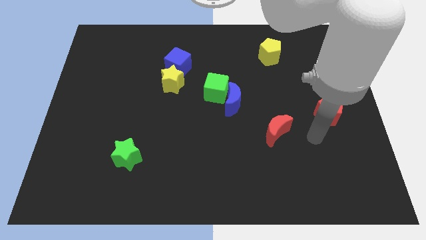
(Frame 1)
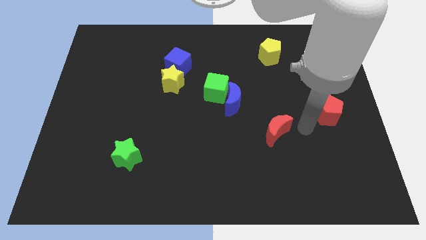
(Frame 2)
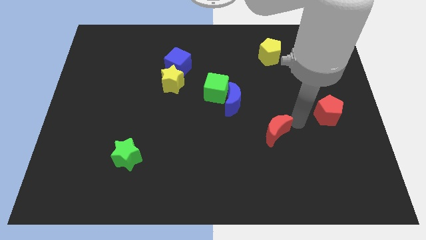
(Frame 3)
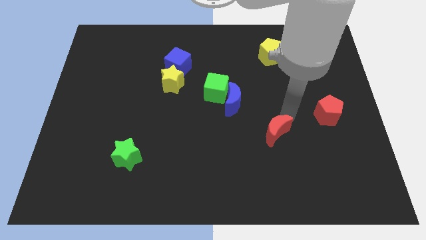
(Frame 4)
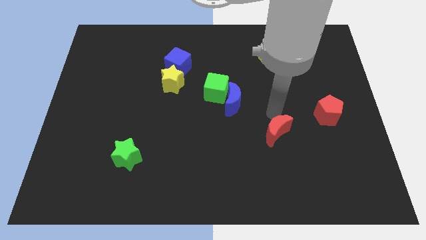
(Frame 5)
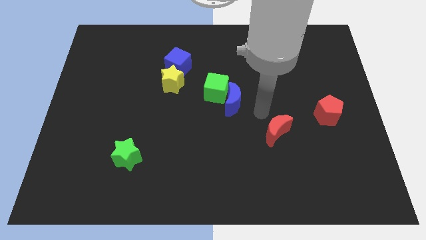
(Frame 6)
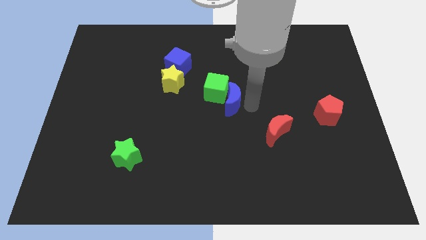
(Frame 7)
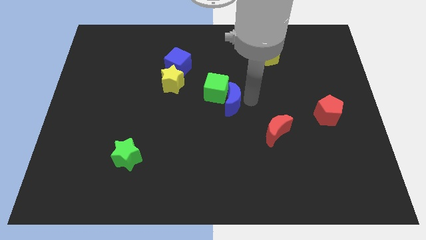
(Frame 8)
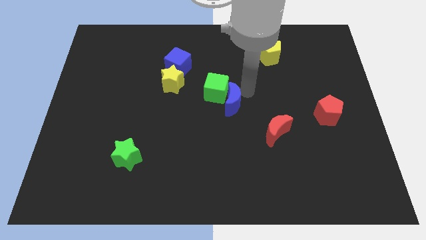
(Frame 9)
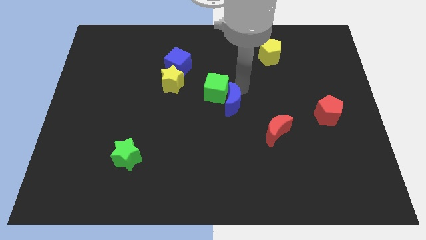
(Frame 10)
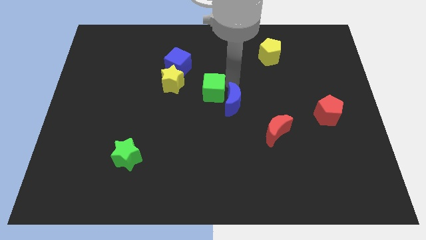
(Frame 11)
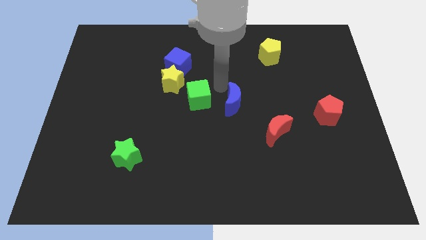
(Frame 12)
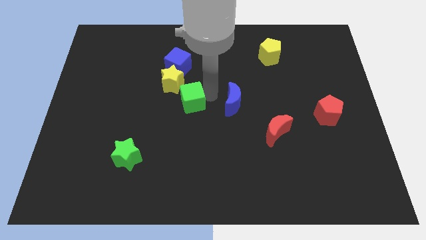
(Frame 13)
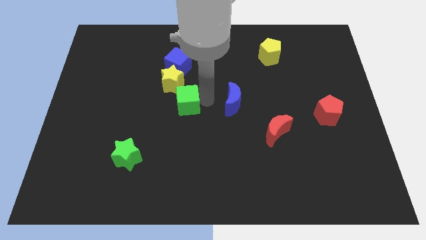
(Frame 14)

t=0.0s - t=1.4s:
pull the blue moon apart from the green cube

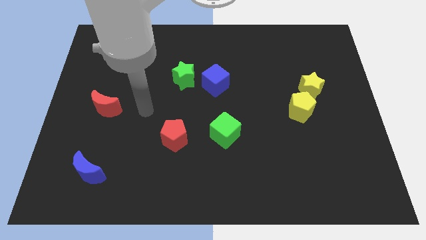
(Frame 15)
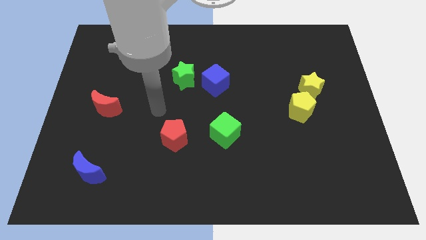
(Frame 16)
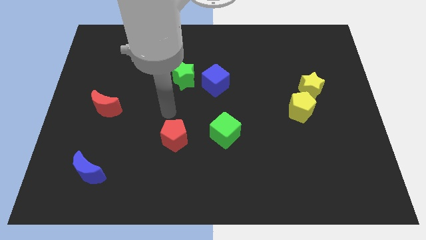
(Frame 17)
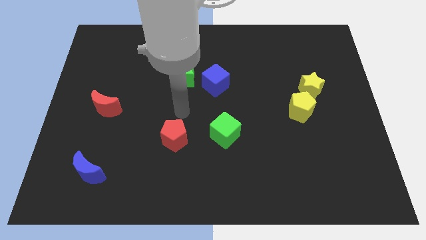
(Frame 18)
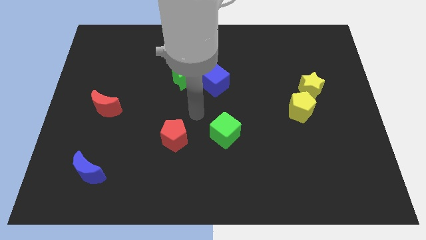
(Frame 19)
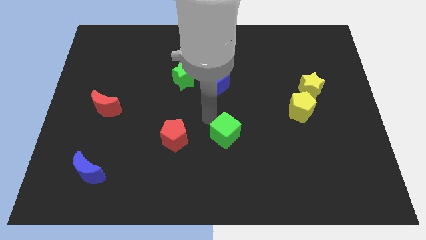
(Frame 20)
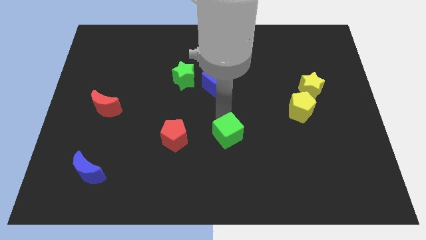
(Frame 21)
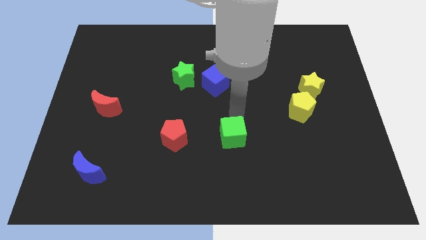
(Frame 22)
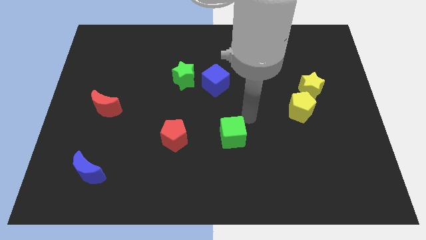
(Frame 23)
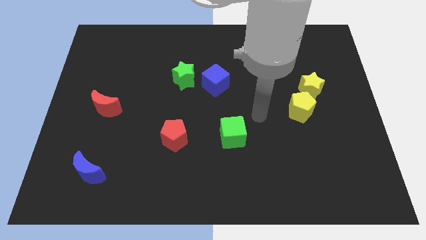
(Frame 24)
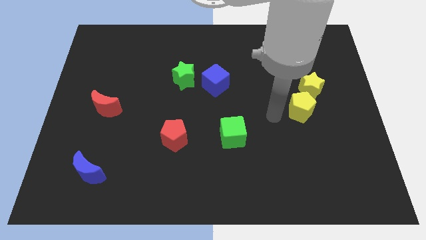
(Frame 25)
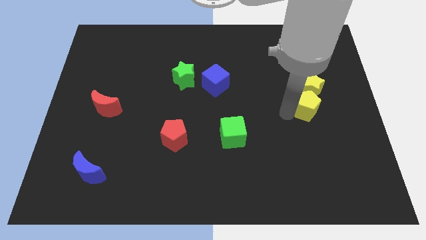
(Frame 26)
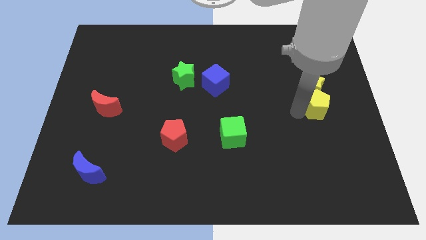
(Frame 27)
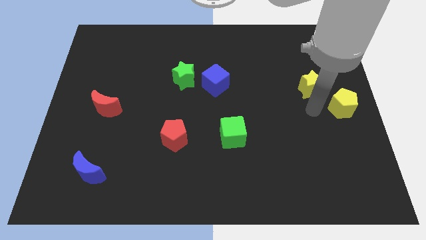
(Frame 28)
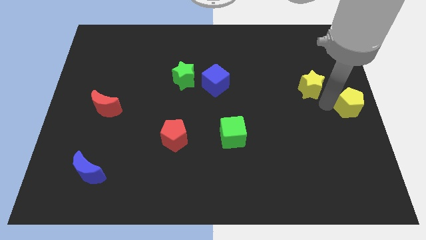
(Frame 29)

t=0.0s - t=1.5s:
move the yellow star away from the yellow pentagon

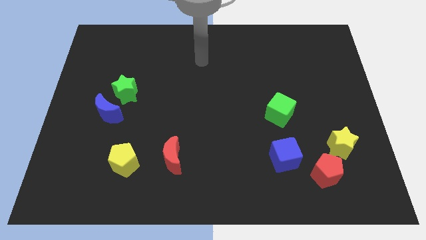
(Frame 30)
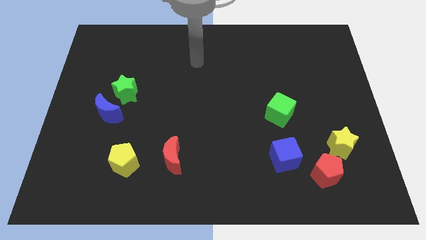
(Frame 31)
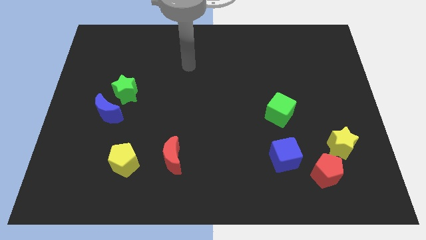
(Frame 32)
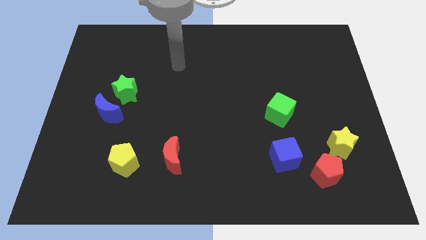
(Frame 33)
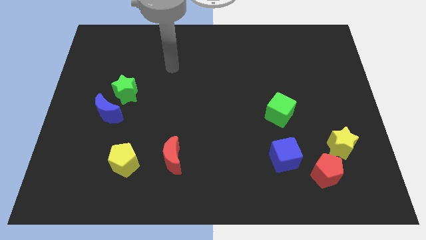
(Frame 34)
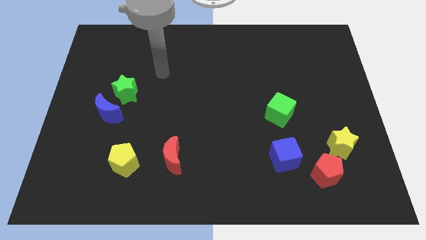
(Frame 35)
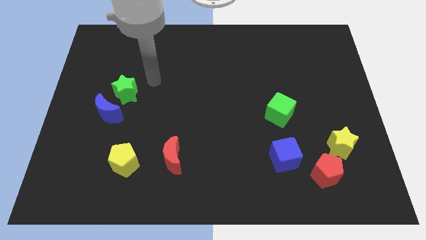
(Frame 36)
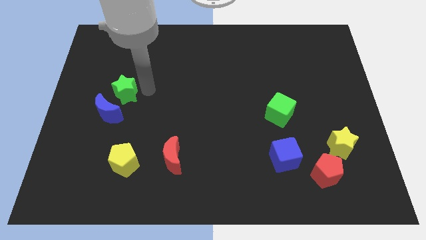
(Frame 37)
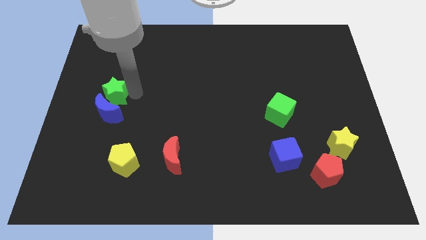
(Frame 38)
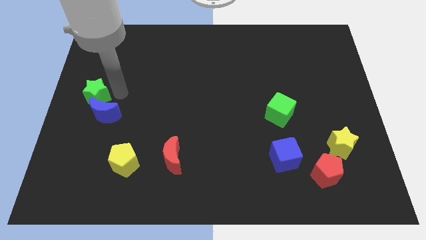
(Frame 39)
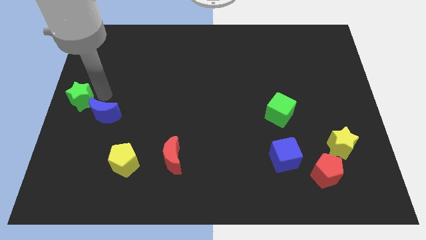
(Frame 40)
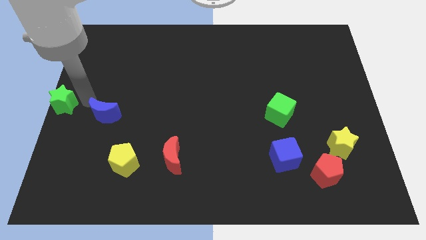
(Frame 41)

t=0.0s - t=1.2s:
move the blue moon away from the green star

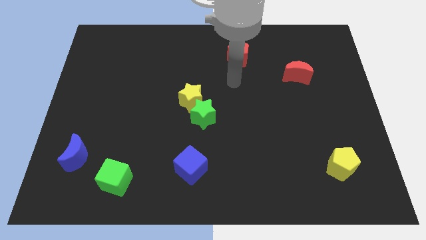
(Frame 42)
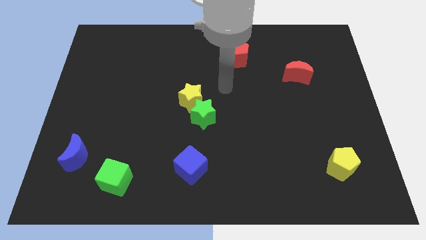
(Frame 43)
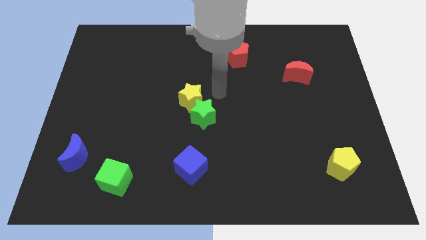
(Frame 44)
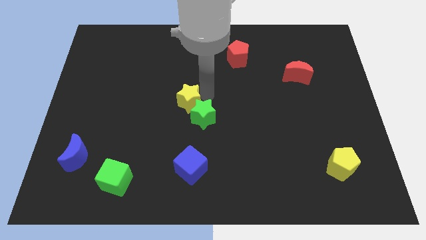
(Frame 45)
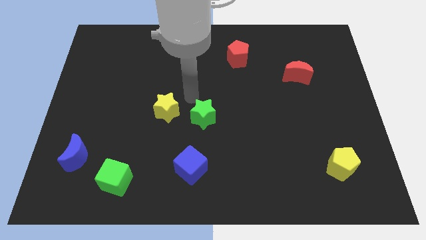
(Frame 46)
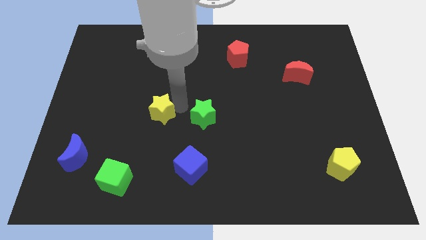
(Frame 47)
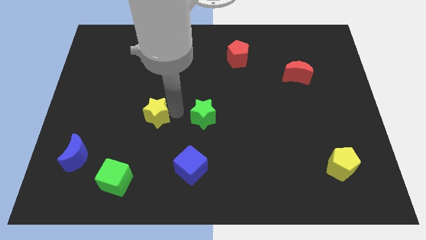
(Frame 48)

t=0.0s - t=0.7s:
move the green star away from the yellow star

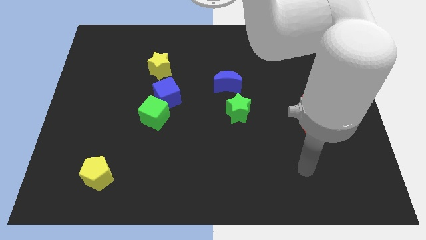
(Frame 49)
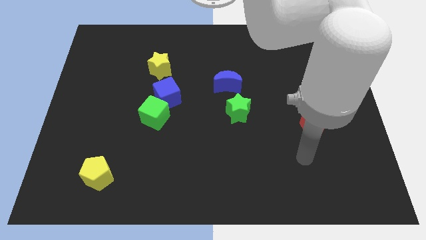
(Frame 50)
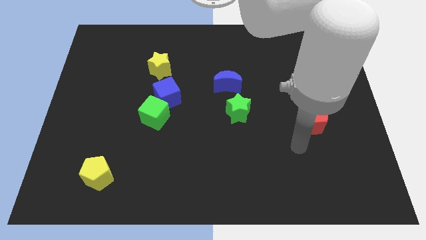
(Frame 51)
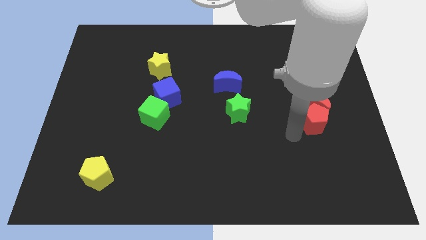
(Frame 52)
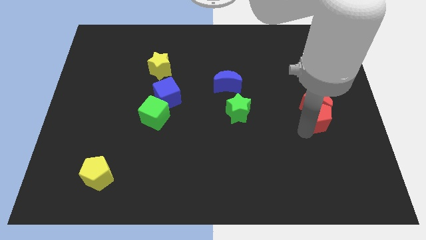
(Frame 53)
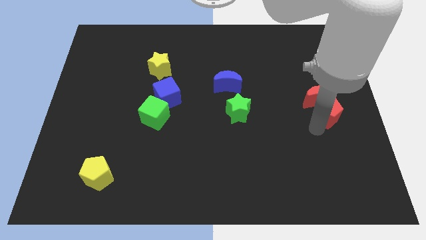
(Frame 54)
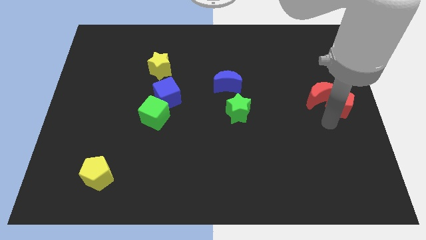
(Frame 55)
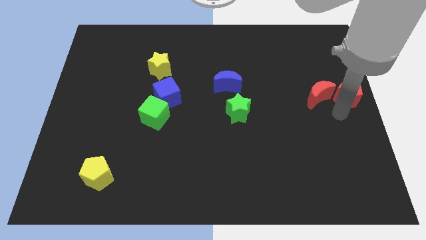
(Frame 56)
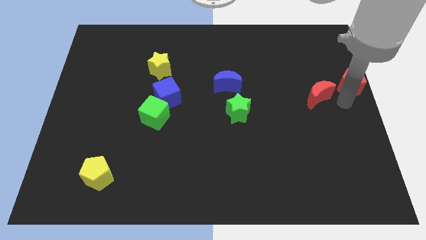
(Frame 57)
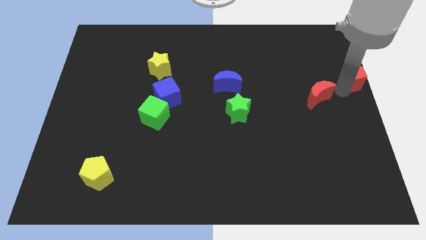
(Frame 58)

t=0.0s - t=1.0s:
separate the red moon from the red pentagon

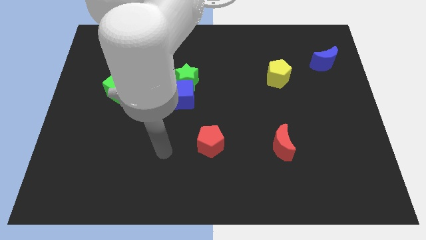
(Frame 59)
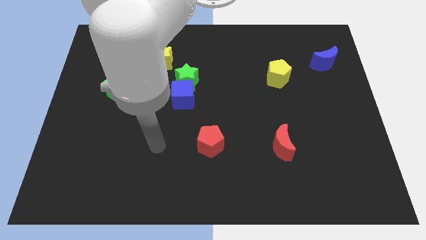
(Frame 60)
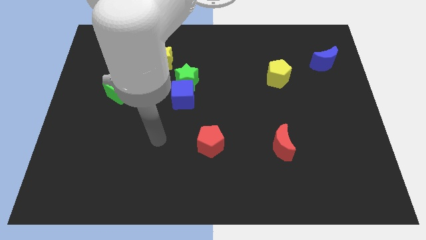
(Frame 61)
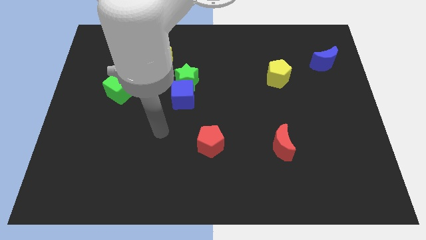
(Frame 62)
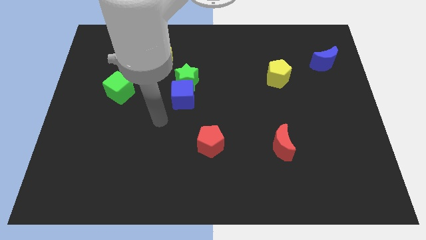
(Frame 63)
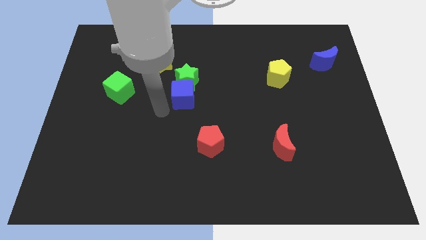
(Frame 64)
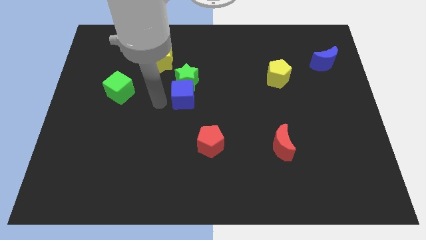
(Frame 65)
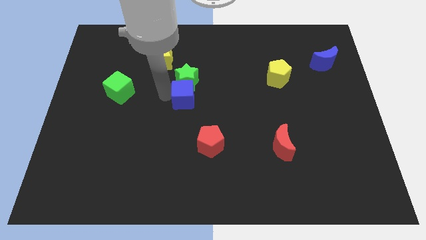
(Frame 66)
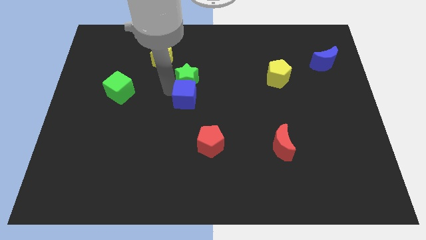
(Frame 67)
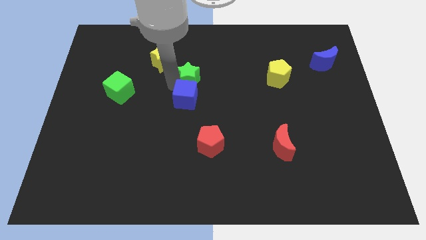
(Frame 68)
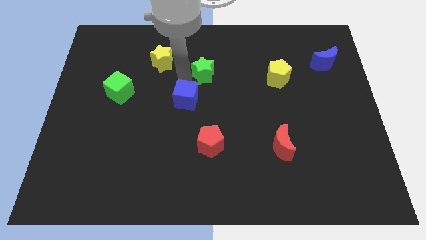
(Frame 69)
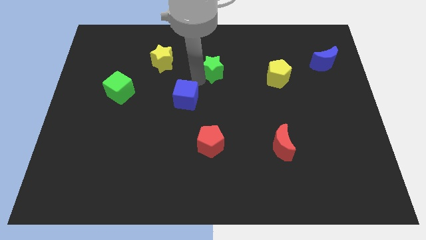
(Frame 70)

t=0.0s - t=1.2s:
move the blue cube away from the green star

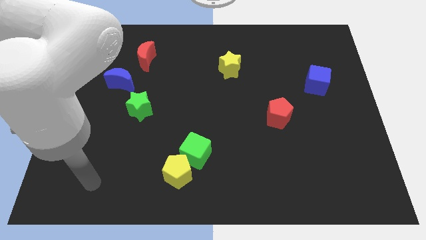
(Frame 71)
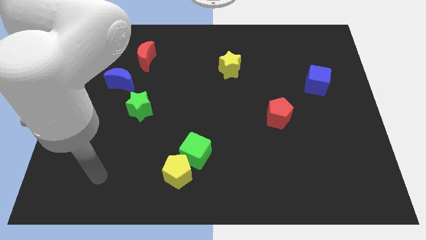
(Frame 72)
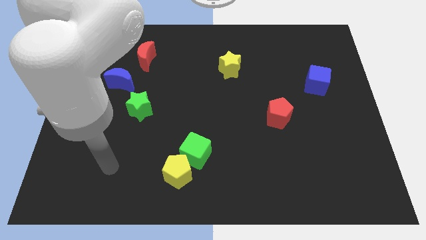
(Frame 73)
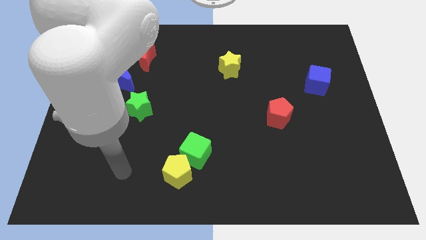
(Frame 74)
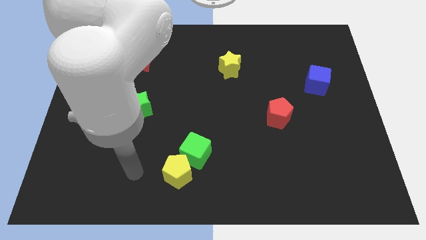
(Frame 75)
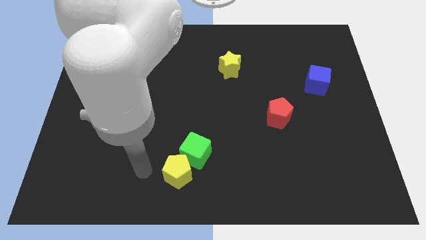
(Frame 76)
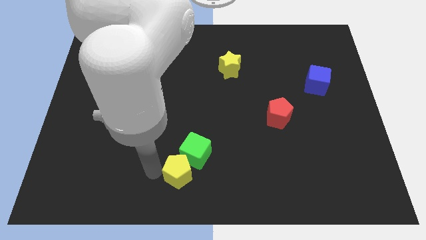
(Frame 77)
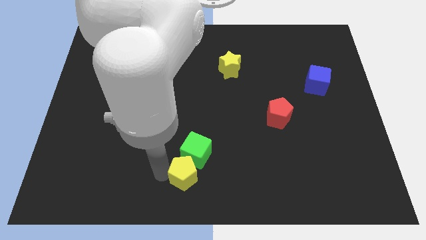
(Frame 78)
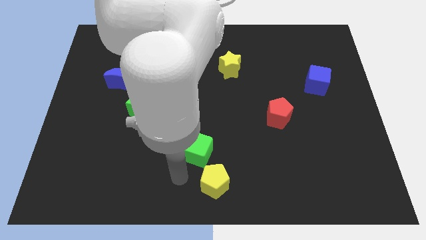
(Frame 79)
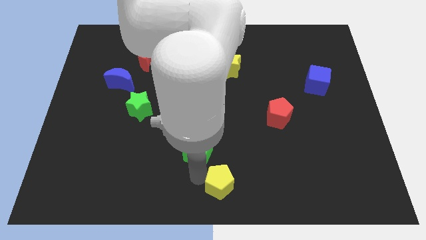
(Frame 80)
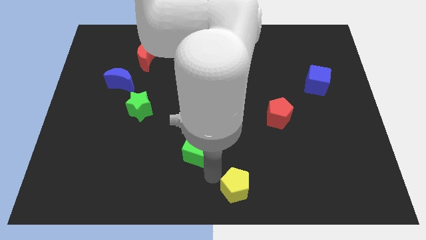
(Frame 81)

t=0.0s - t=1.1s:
pull the green cube apart from the yellow pentagon

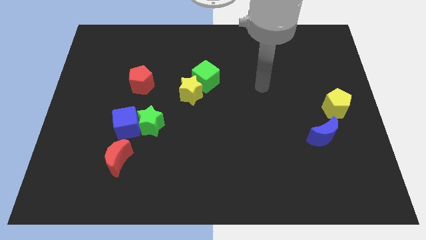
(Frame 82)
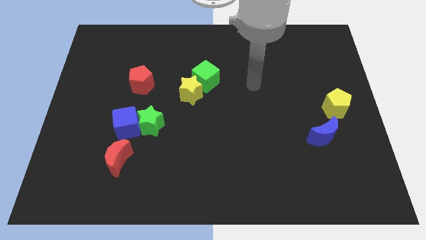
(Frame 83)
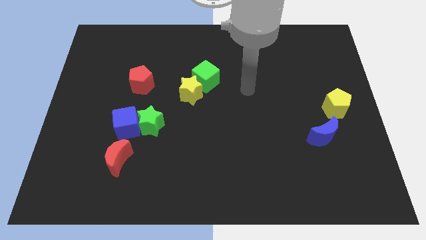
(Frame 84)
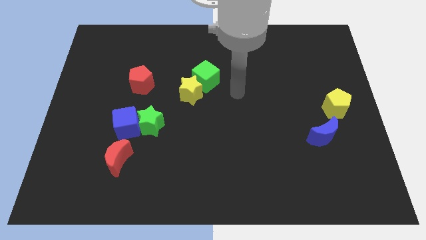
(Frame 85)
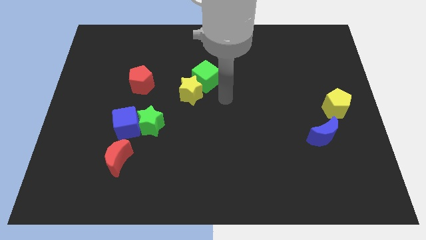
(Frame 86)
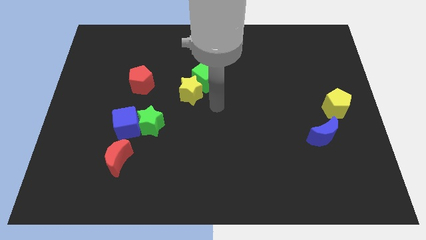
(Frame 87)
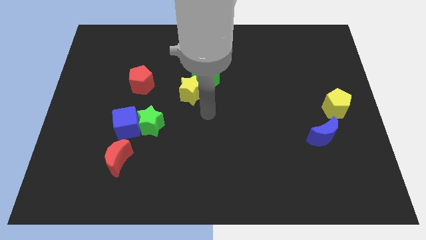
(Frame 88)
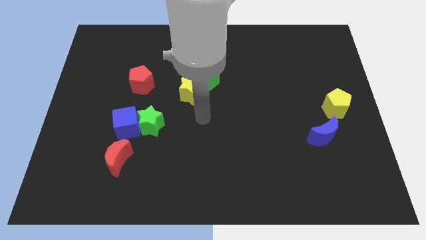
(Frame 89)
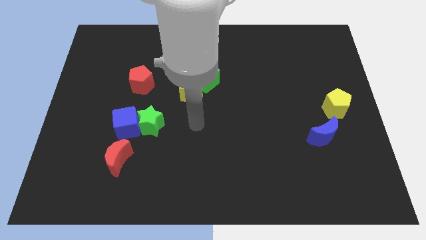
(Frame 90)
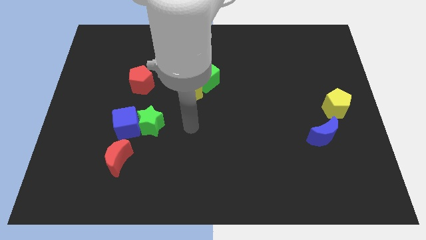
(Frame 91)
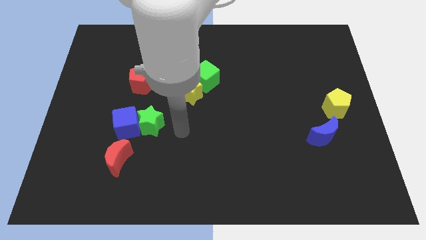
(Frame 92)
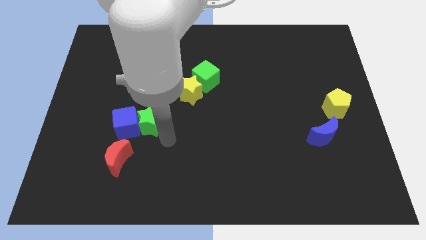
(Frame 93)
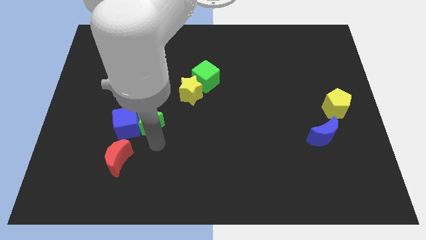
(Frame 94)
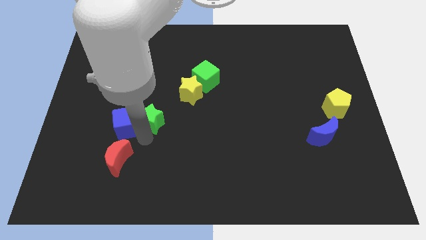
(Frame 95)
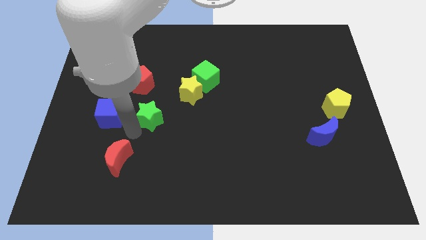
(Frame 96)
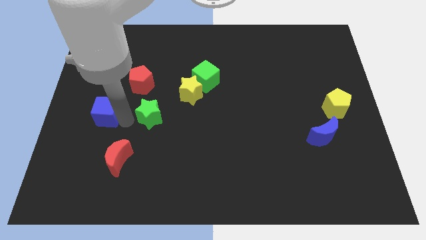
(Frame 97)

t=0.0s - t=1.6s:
pull the green star apart from the blue cube
